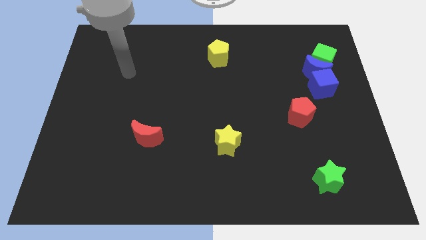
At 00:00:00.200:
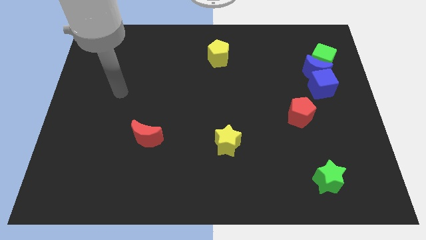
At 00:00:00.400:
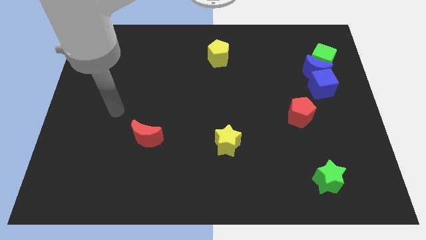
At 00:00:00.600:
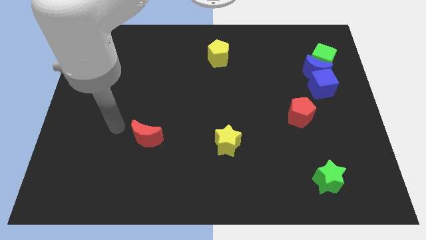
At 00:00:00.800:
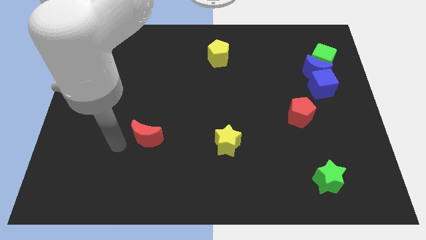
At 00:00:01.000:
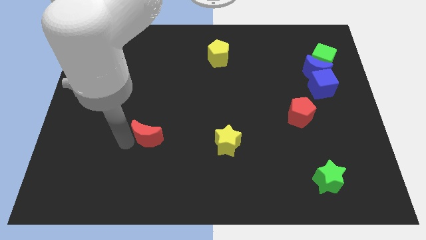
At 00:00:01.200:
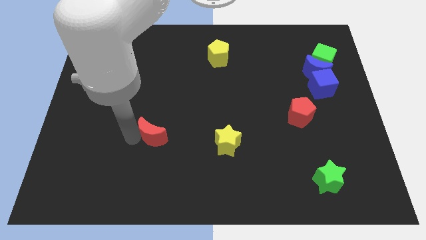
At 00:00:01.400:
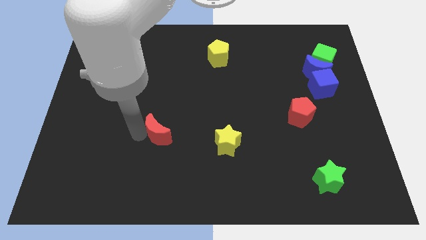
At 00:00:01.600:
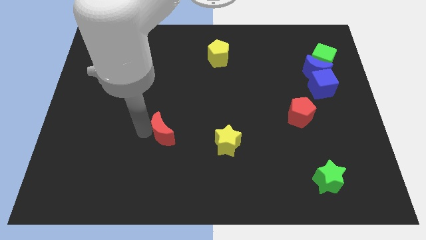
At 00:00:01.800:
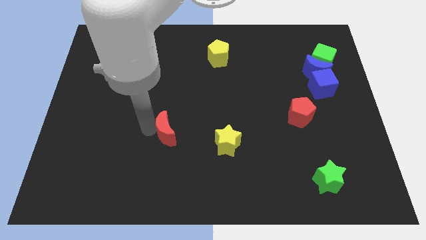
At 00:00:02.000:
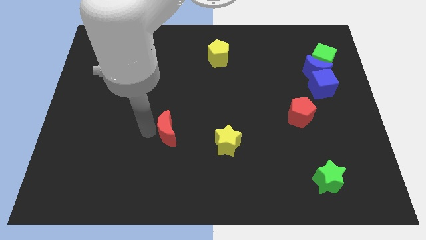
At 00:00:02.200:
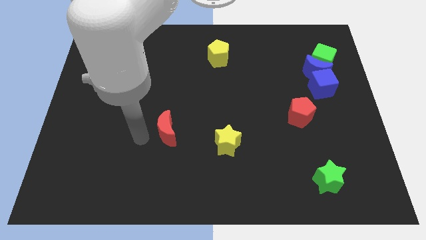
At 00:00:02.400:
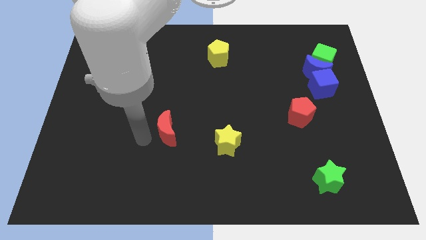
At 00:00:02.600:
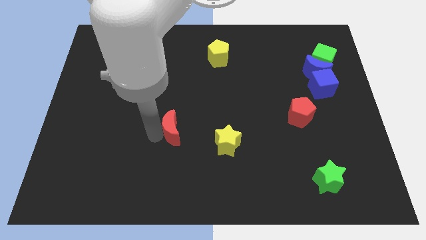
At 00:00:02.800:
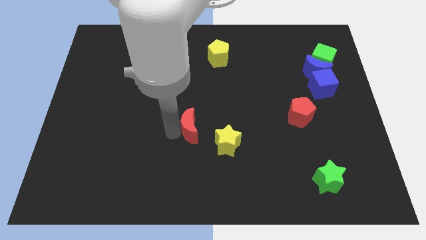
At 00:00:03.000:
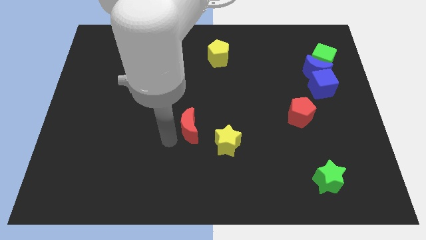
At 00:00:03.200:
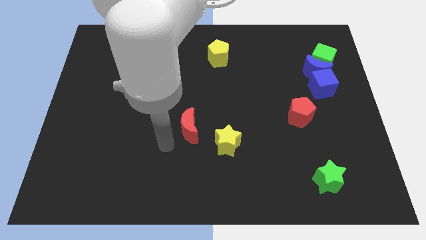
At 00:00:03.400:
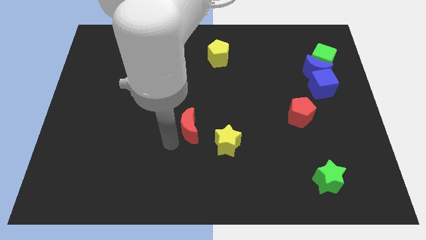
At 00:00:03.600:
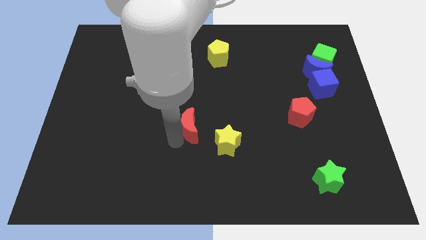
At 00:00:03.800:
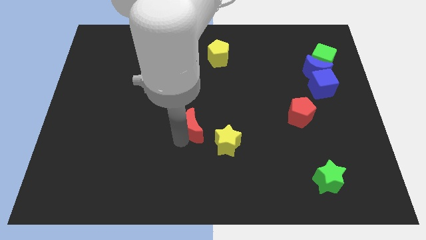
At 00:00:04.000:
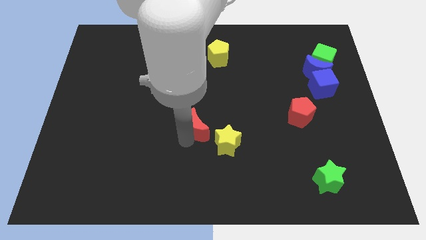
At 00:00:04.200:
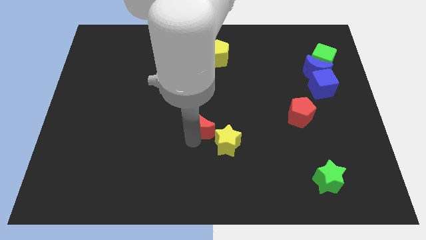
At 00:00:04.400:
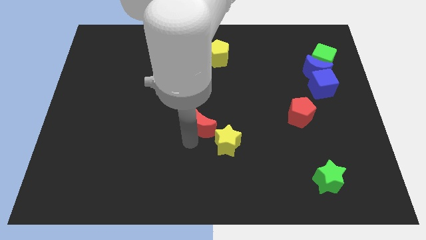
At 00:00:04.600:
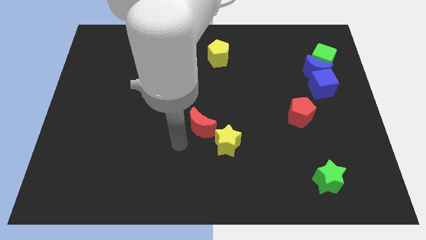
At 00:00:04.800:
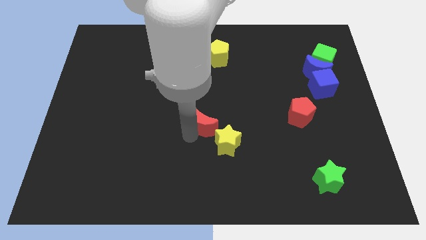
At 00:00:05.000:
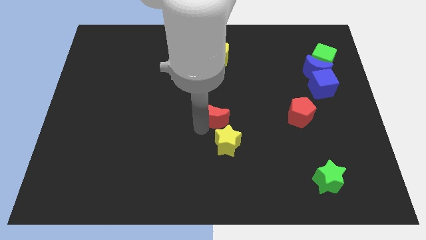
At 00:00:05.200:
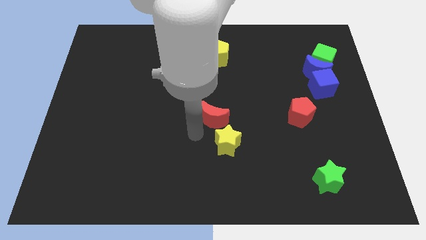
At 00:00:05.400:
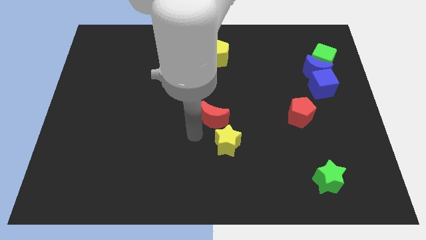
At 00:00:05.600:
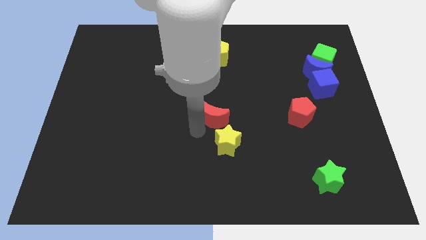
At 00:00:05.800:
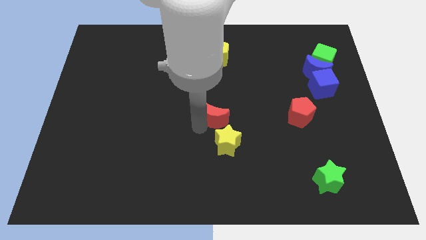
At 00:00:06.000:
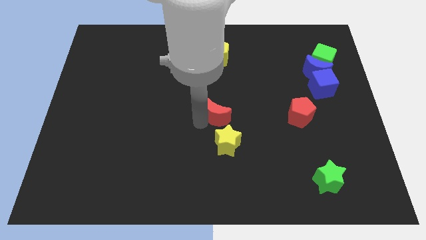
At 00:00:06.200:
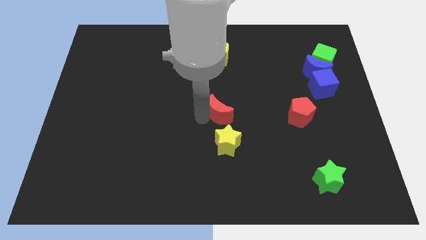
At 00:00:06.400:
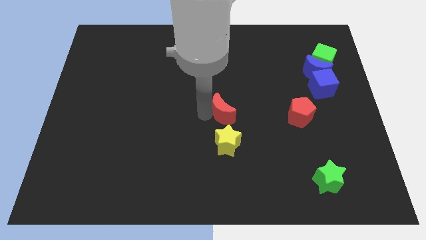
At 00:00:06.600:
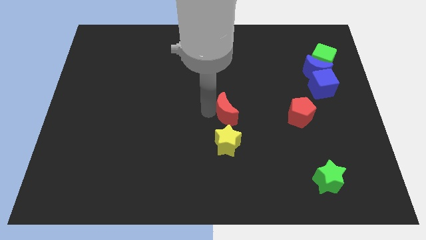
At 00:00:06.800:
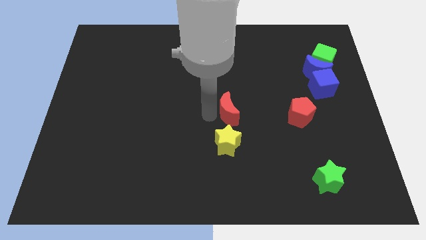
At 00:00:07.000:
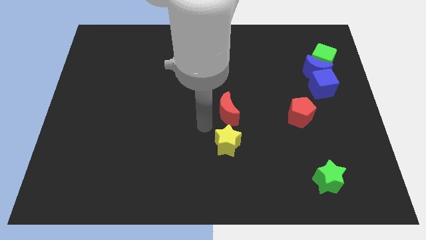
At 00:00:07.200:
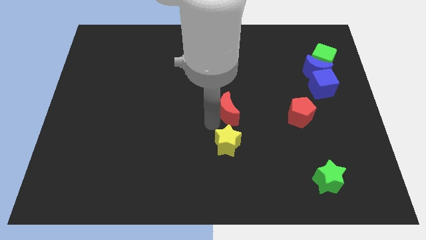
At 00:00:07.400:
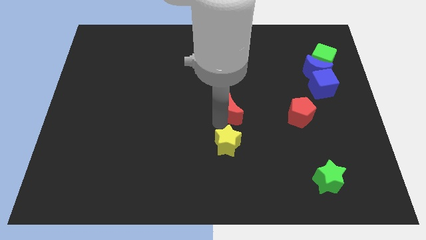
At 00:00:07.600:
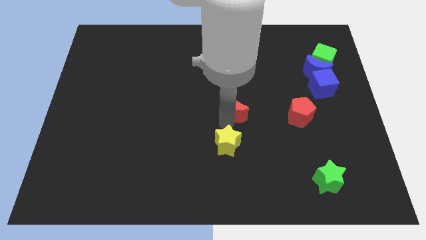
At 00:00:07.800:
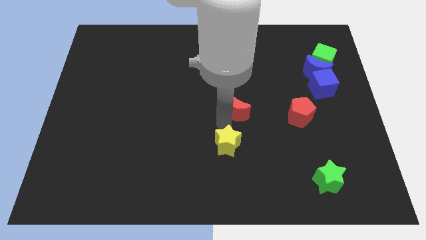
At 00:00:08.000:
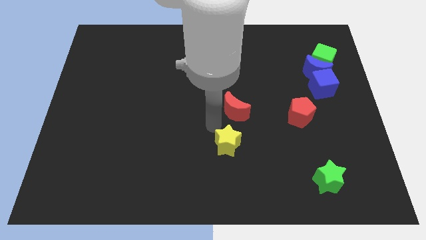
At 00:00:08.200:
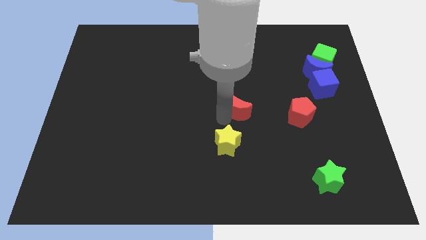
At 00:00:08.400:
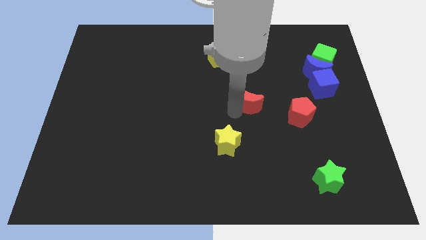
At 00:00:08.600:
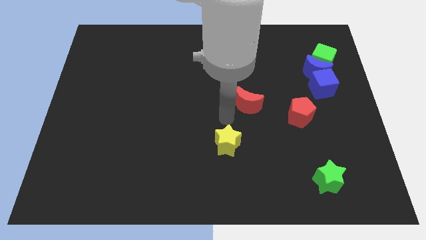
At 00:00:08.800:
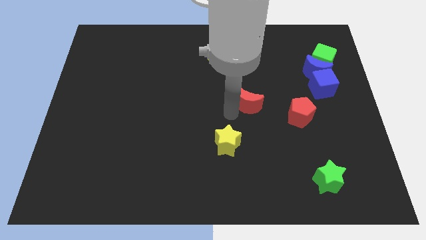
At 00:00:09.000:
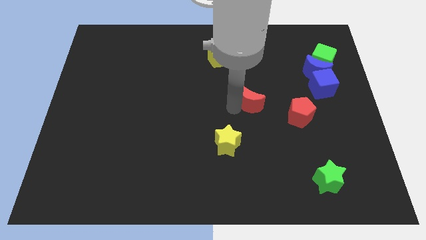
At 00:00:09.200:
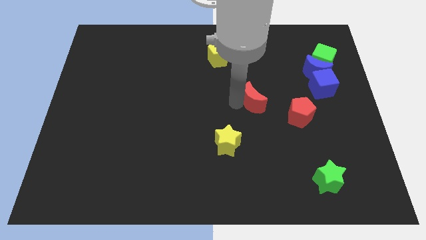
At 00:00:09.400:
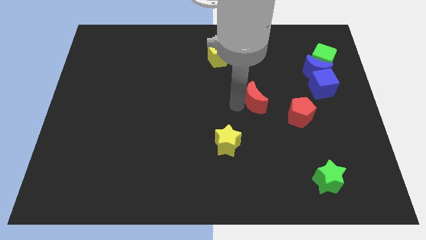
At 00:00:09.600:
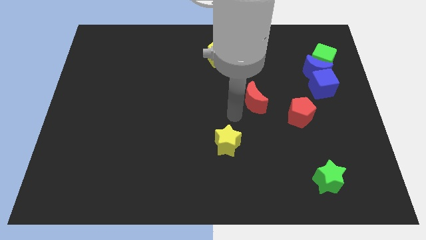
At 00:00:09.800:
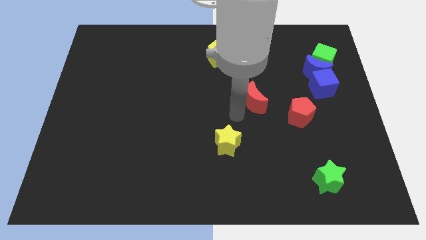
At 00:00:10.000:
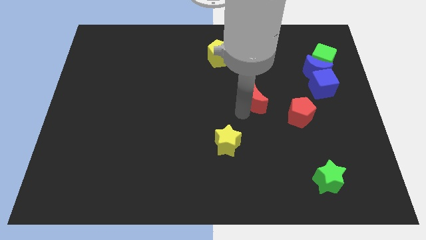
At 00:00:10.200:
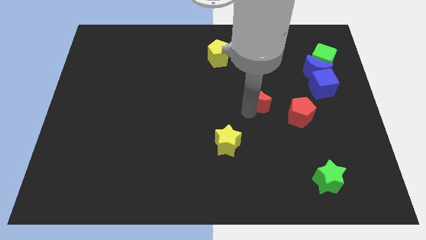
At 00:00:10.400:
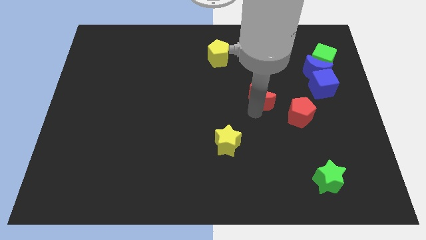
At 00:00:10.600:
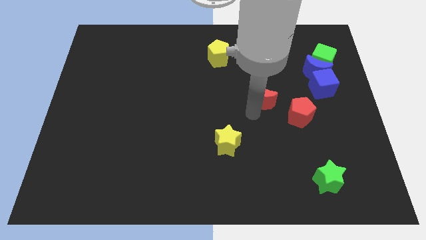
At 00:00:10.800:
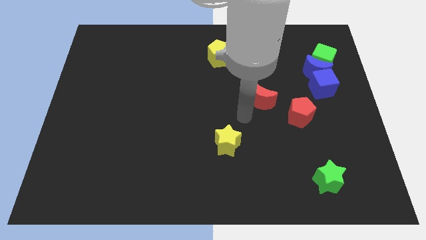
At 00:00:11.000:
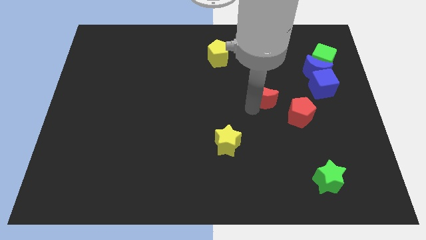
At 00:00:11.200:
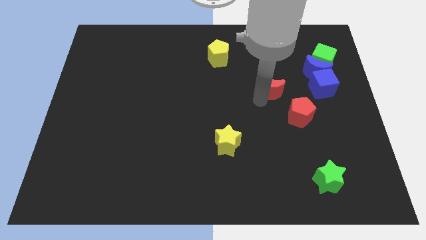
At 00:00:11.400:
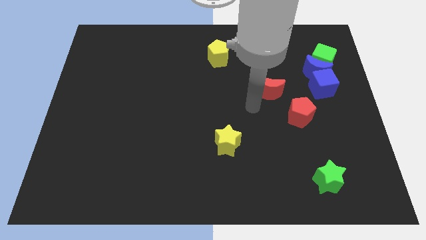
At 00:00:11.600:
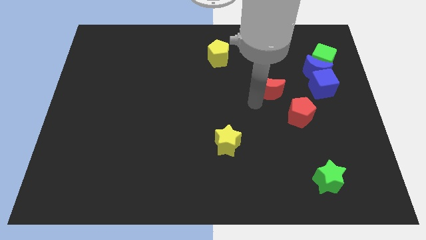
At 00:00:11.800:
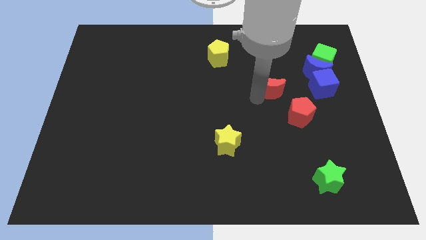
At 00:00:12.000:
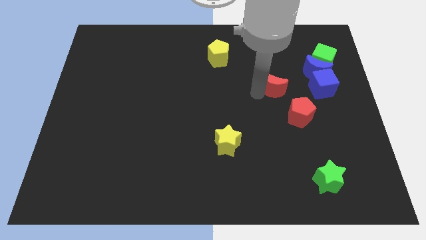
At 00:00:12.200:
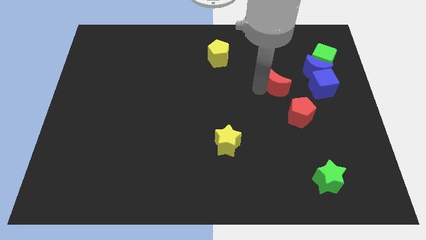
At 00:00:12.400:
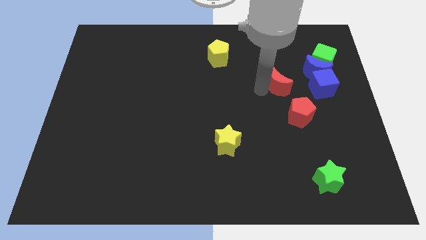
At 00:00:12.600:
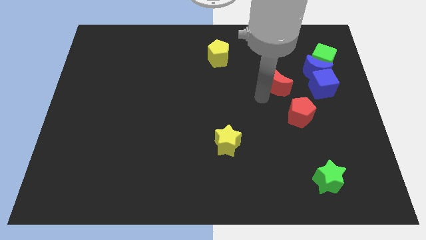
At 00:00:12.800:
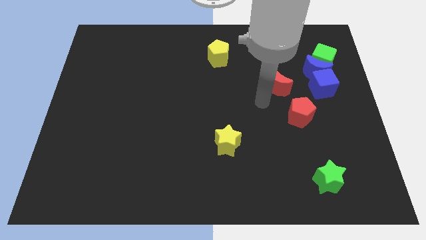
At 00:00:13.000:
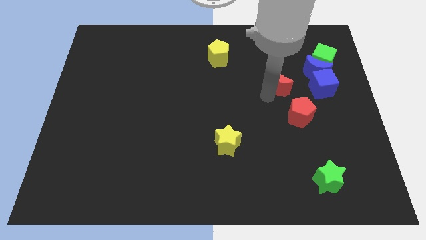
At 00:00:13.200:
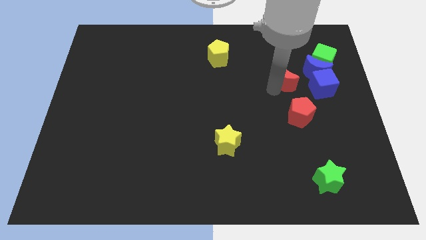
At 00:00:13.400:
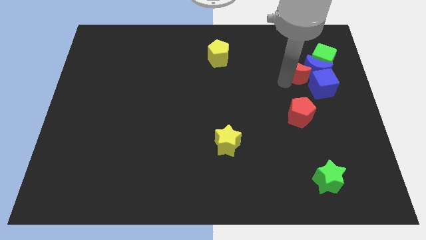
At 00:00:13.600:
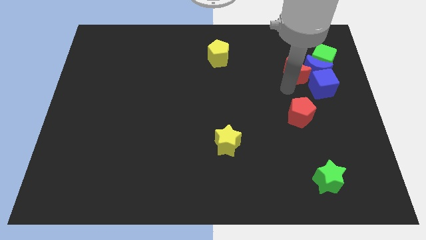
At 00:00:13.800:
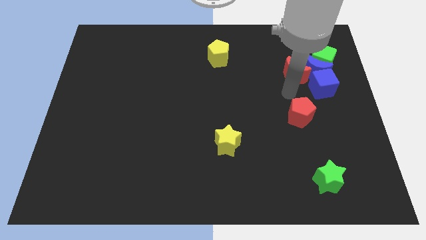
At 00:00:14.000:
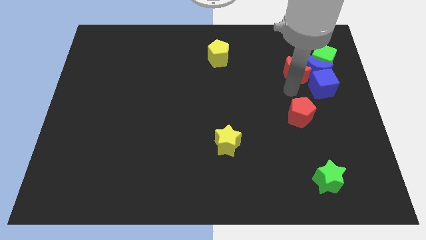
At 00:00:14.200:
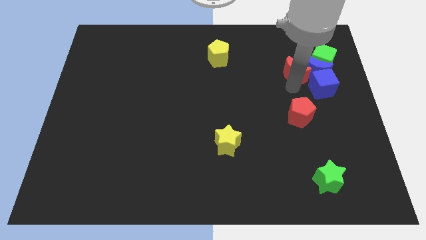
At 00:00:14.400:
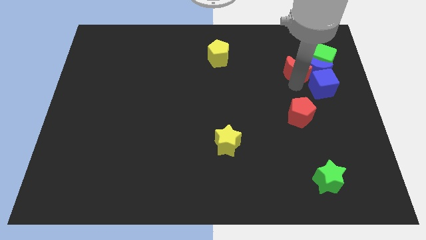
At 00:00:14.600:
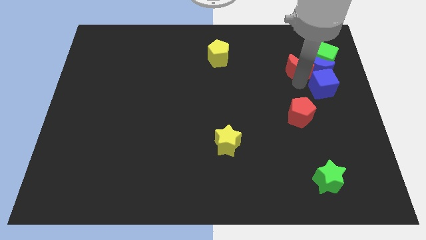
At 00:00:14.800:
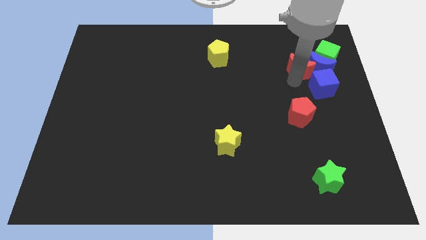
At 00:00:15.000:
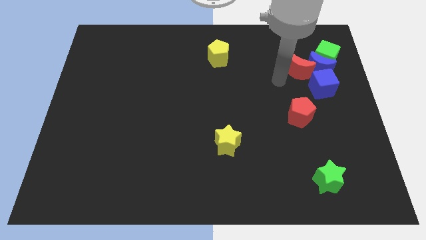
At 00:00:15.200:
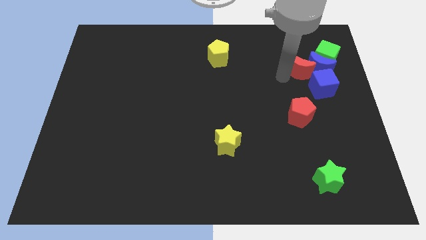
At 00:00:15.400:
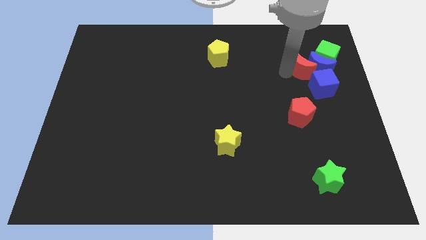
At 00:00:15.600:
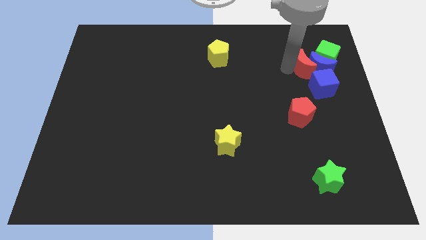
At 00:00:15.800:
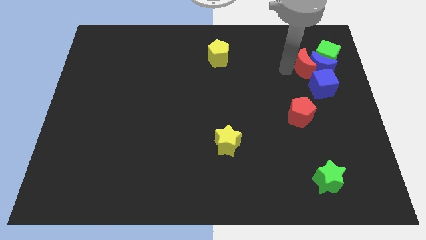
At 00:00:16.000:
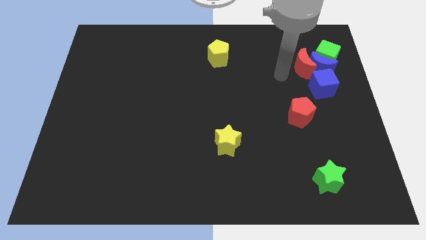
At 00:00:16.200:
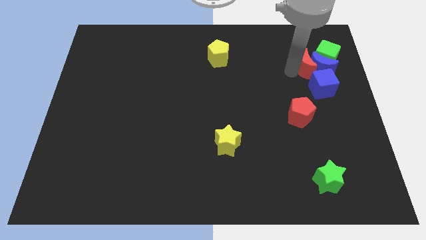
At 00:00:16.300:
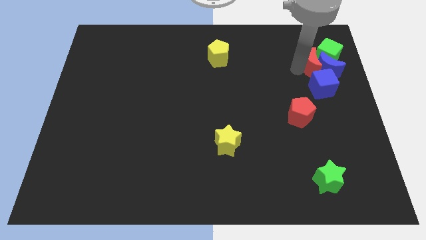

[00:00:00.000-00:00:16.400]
push the red moon to the green cube
